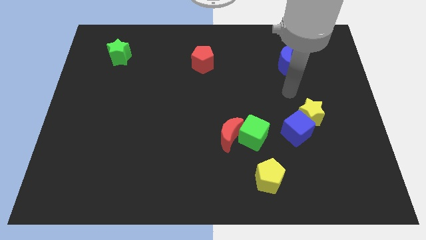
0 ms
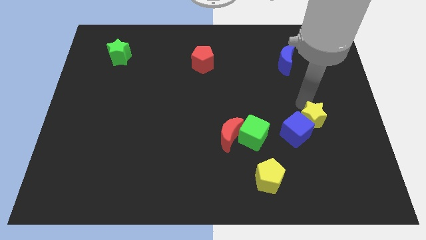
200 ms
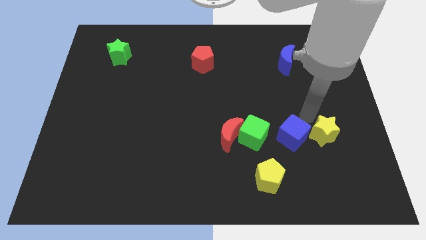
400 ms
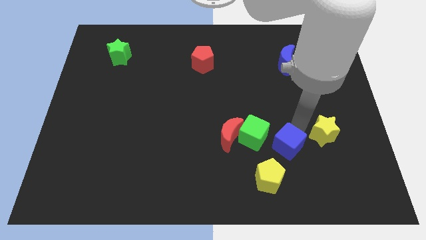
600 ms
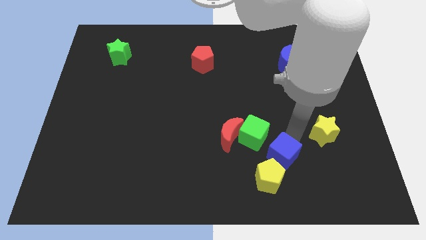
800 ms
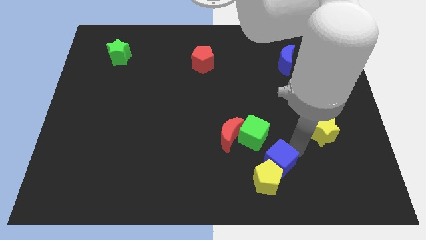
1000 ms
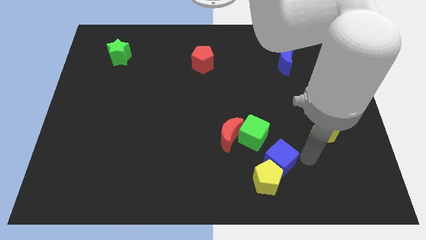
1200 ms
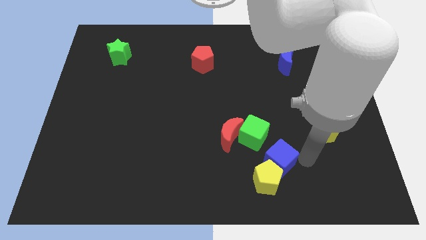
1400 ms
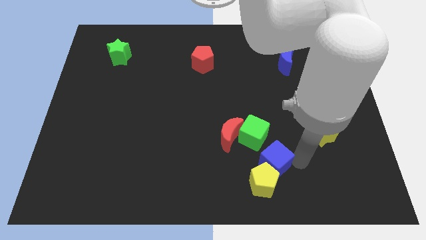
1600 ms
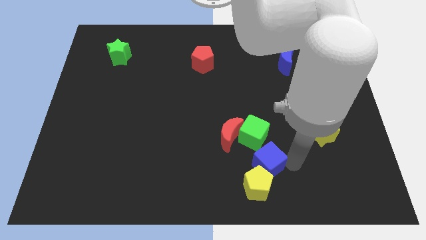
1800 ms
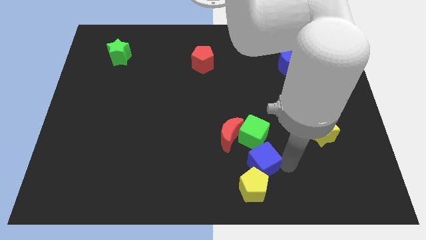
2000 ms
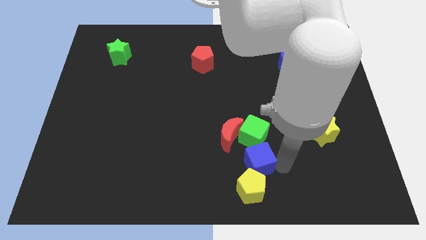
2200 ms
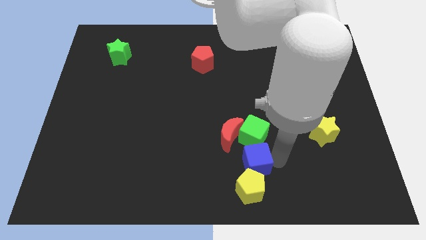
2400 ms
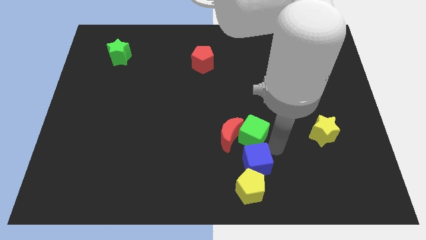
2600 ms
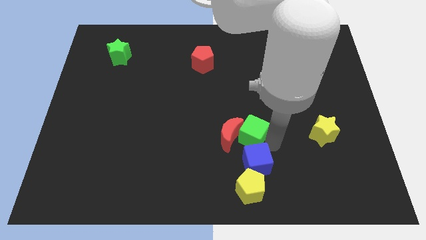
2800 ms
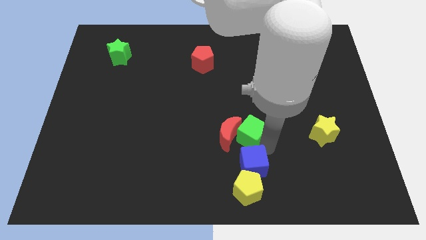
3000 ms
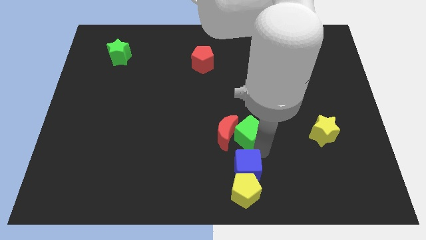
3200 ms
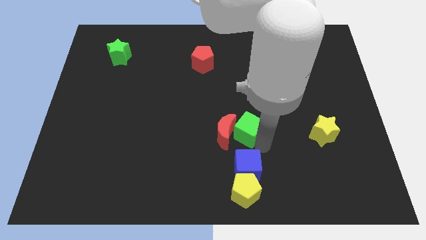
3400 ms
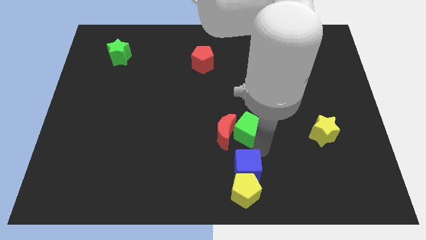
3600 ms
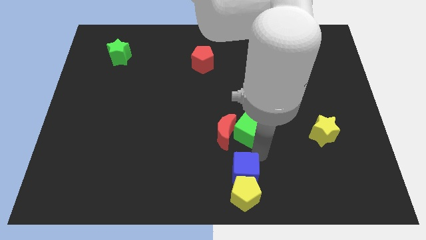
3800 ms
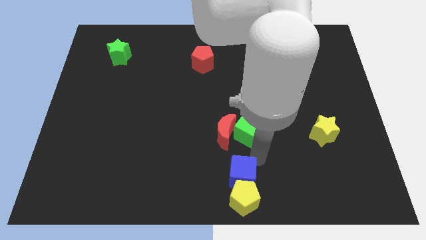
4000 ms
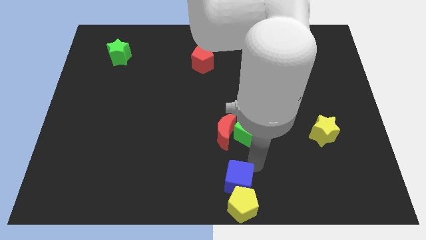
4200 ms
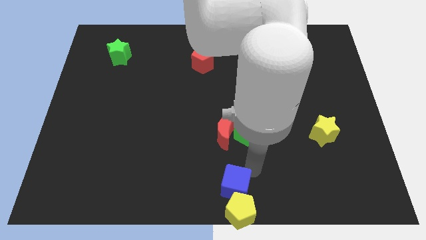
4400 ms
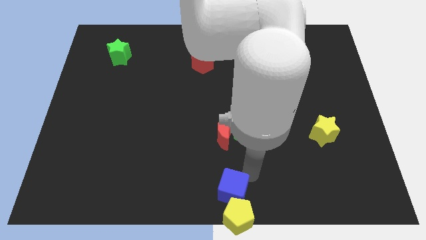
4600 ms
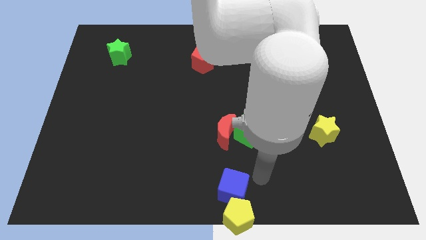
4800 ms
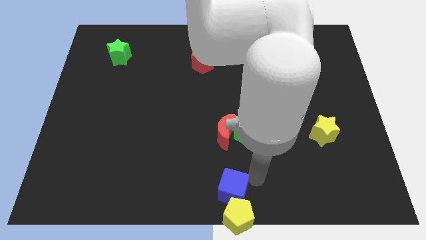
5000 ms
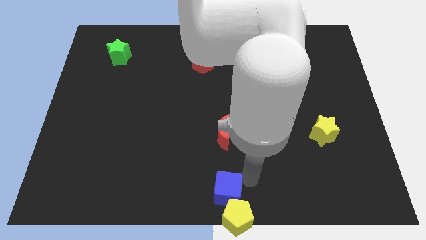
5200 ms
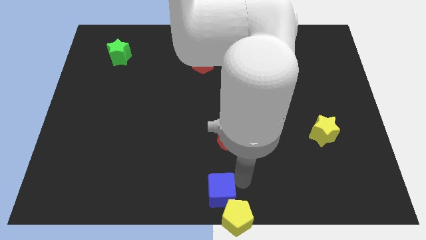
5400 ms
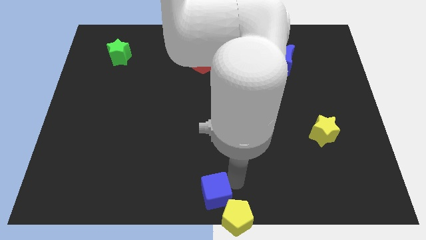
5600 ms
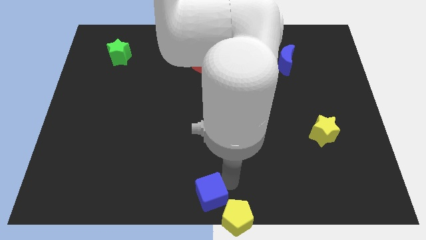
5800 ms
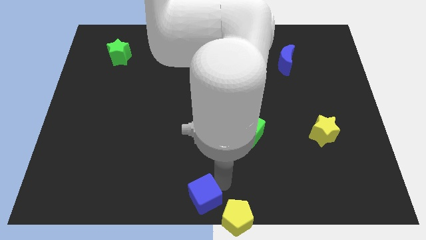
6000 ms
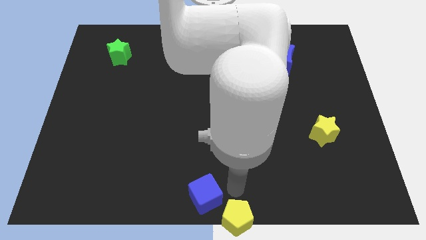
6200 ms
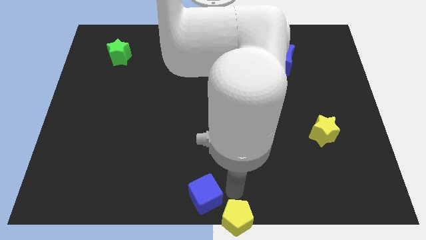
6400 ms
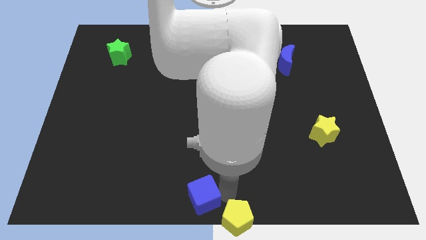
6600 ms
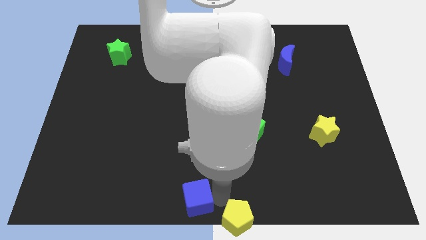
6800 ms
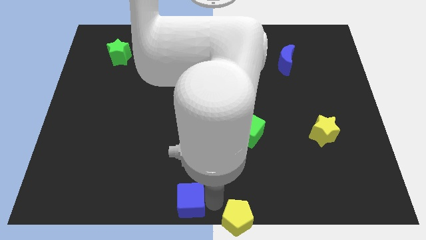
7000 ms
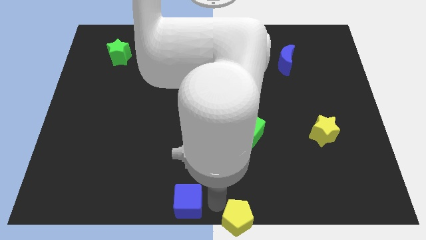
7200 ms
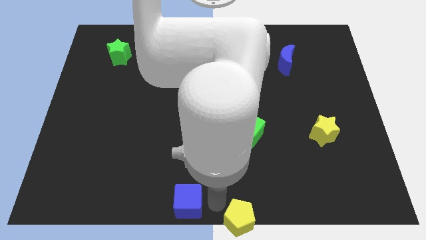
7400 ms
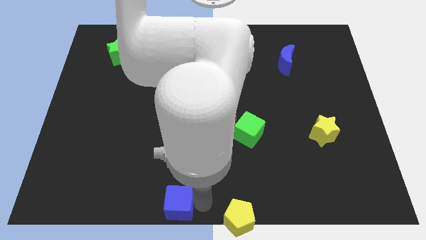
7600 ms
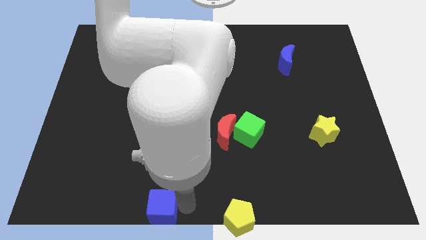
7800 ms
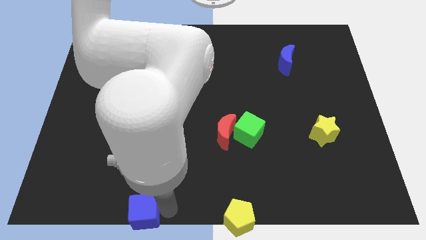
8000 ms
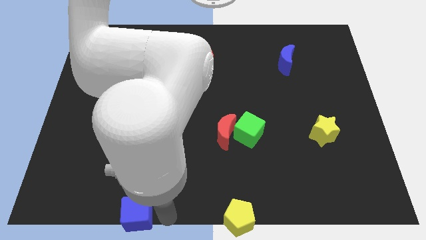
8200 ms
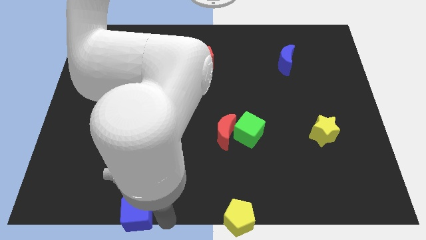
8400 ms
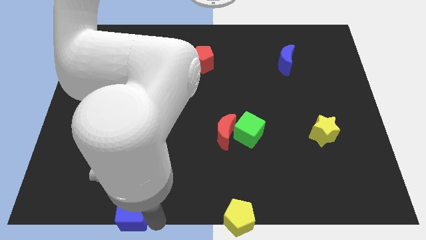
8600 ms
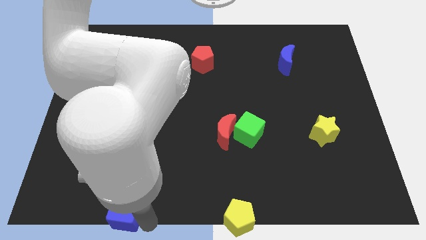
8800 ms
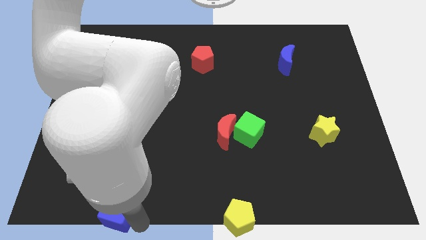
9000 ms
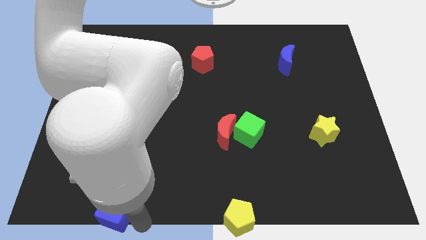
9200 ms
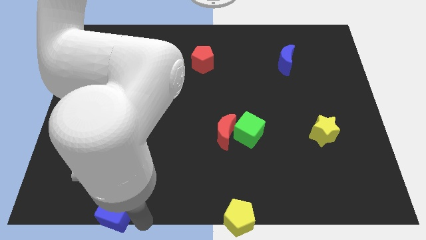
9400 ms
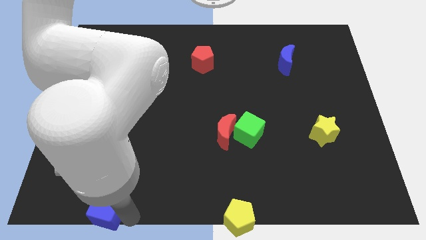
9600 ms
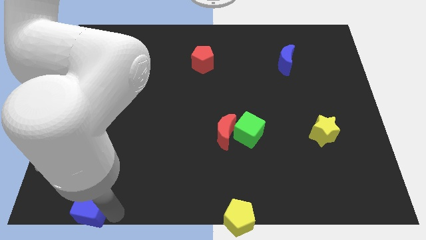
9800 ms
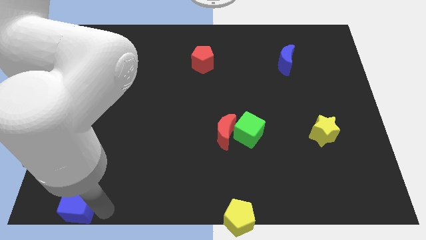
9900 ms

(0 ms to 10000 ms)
put the blue cube to the bottom left corner

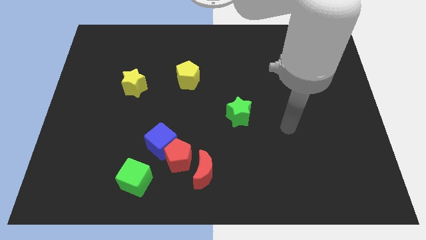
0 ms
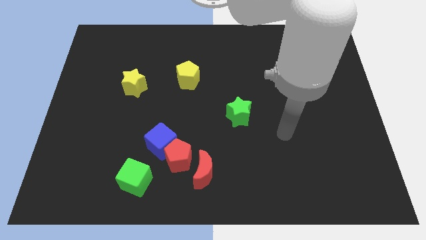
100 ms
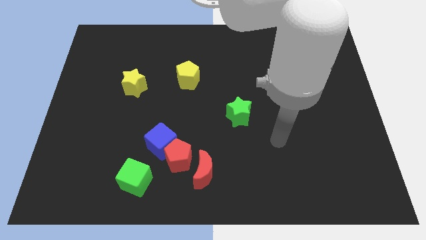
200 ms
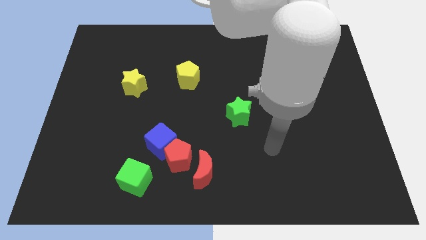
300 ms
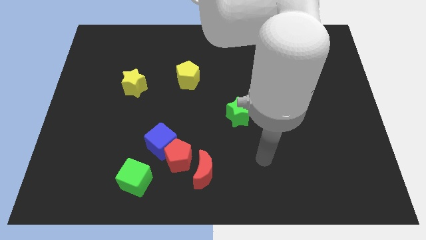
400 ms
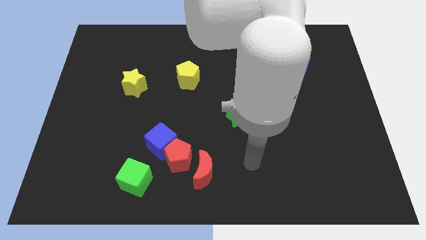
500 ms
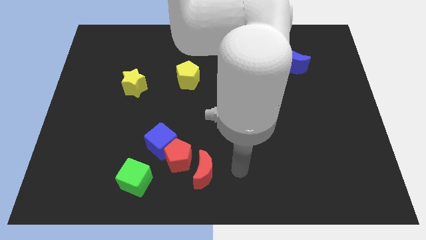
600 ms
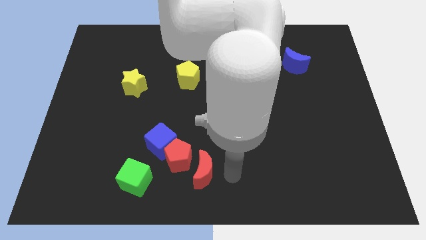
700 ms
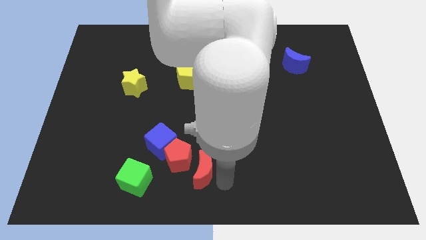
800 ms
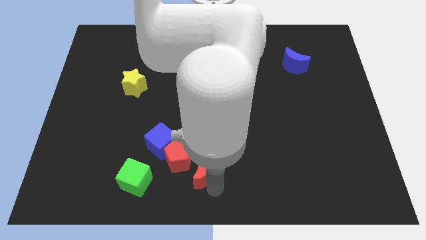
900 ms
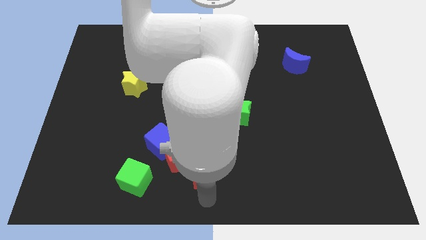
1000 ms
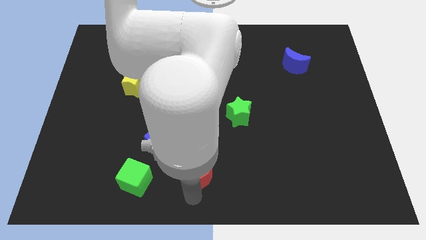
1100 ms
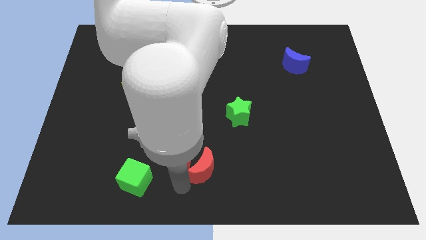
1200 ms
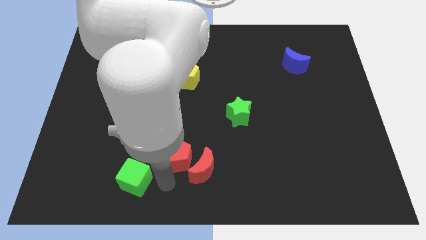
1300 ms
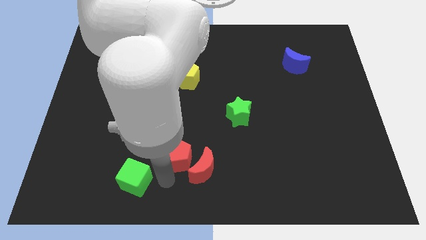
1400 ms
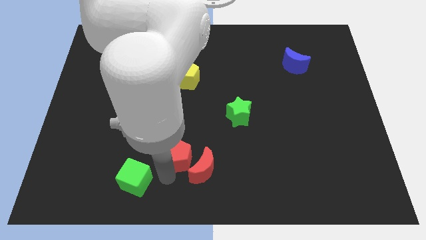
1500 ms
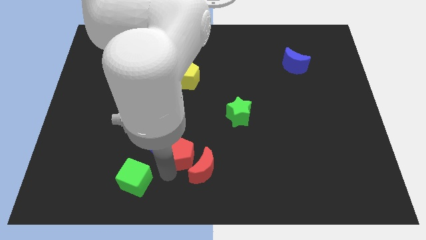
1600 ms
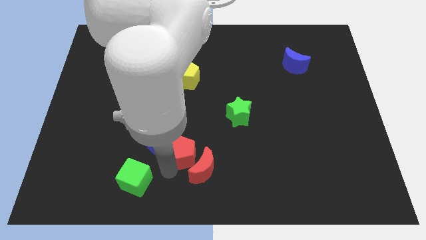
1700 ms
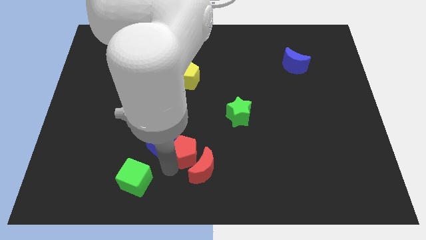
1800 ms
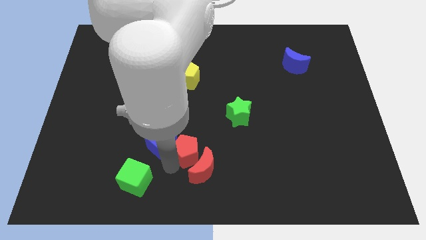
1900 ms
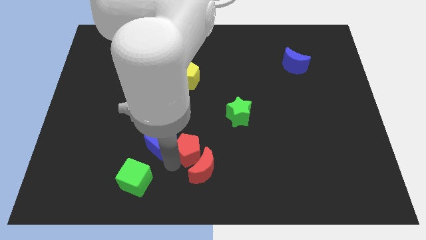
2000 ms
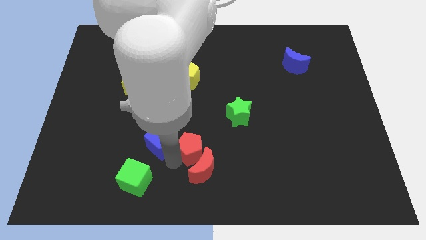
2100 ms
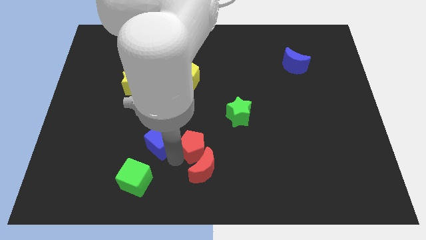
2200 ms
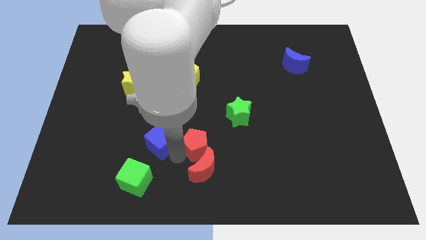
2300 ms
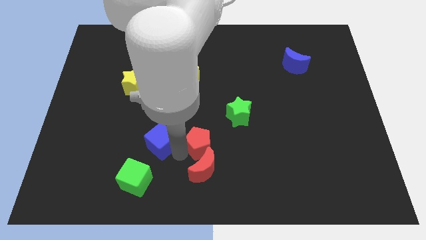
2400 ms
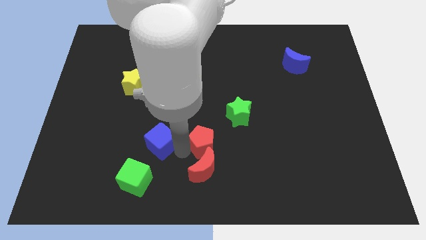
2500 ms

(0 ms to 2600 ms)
move the red pentagon to the center of the board
